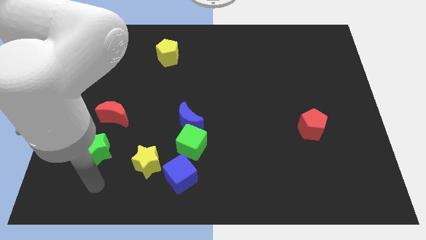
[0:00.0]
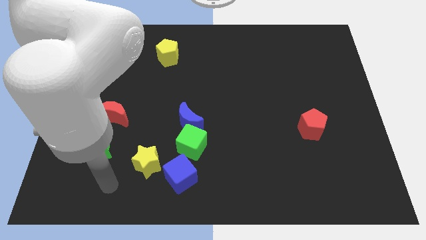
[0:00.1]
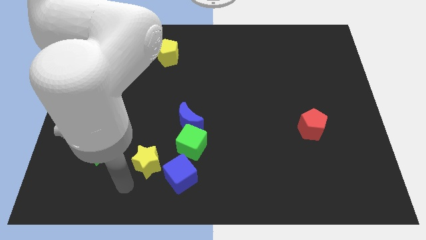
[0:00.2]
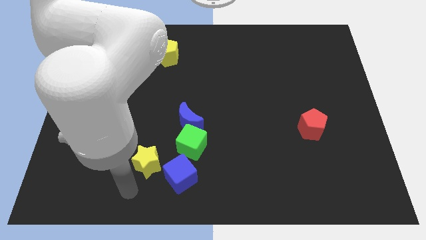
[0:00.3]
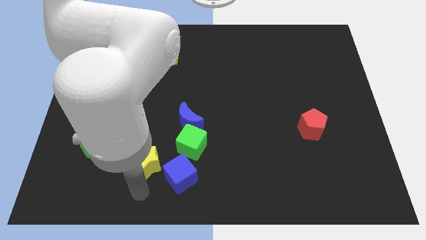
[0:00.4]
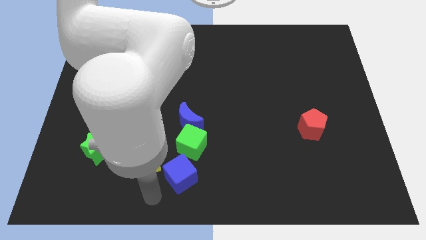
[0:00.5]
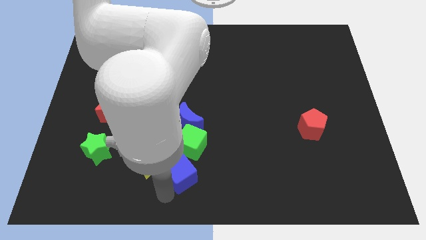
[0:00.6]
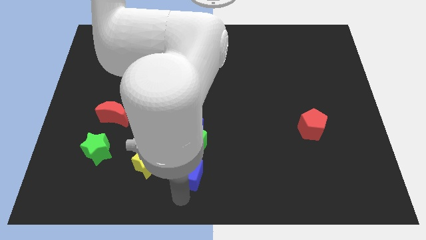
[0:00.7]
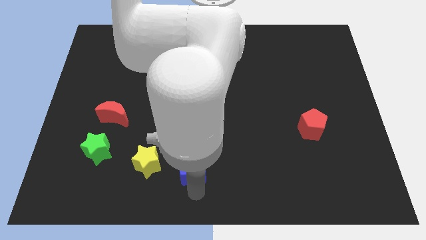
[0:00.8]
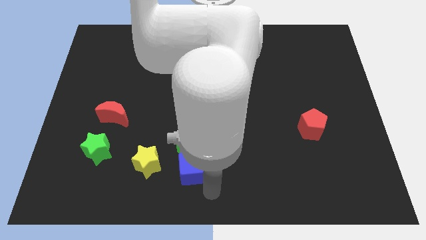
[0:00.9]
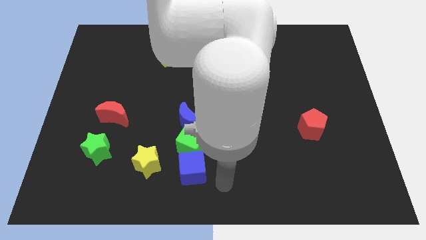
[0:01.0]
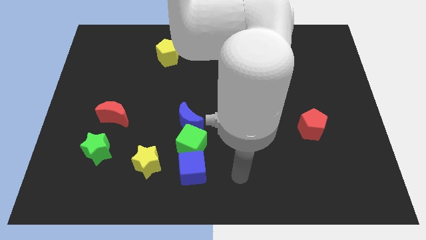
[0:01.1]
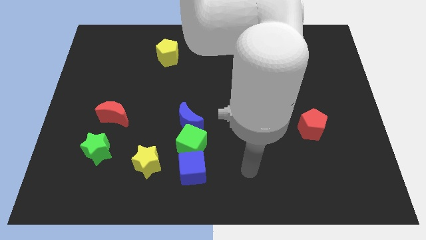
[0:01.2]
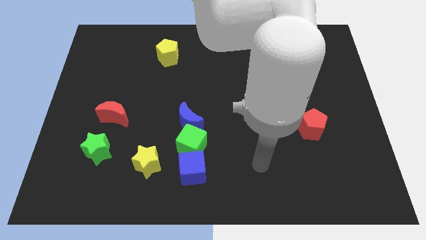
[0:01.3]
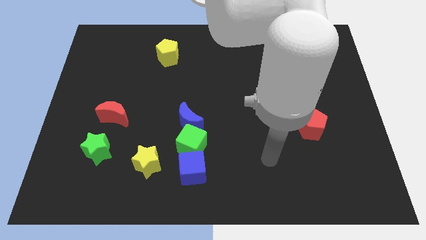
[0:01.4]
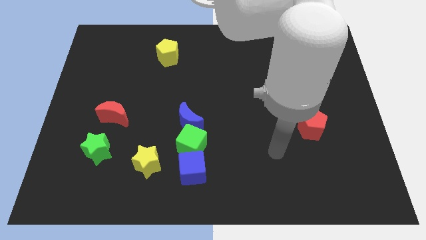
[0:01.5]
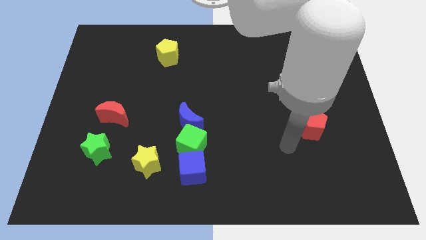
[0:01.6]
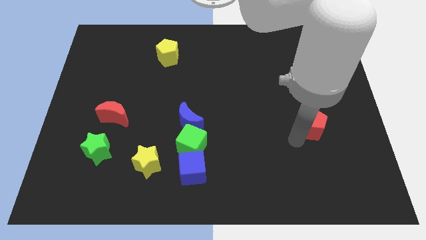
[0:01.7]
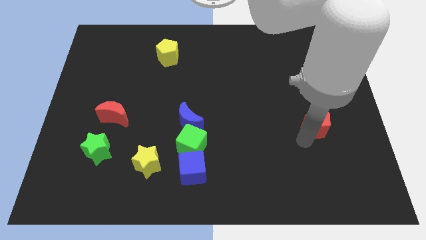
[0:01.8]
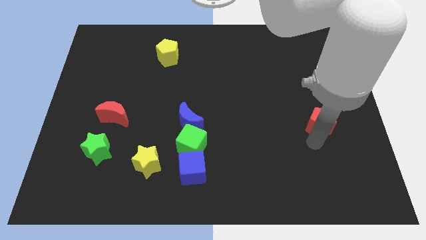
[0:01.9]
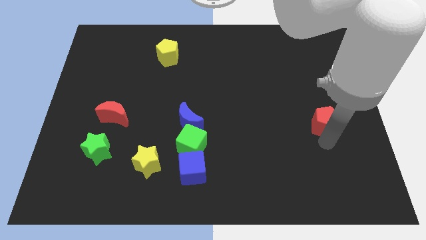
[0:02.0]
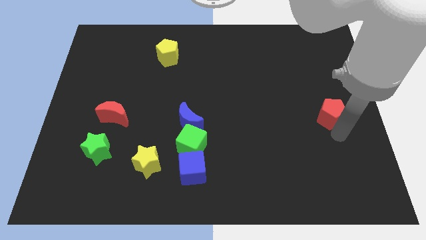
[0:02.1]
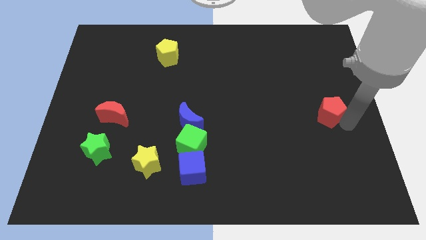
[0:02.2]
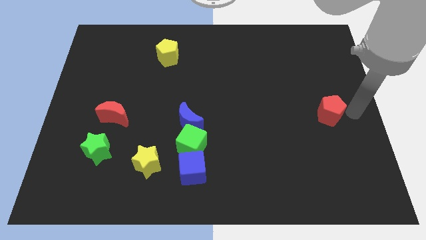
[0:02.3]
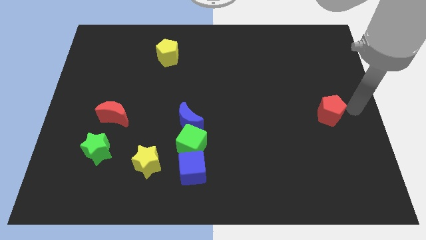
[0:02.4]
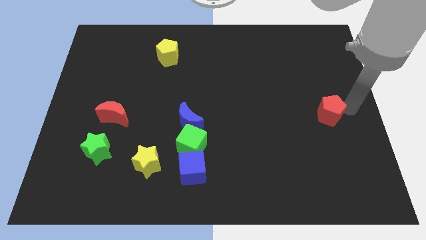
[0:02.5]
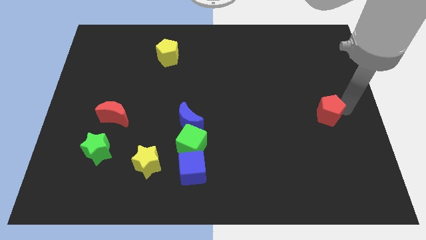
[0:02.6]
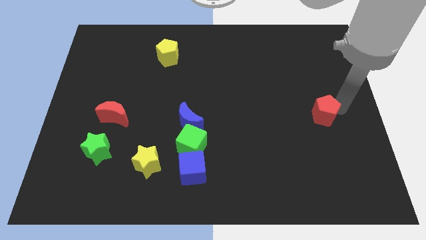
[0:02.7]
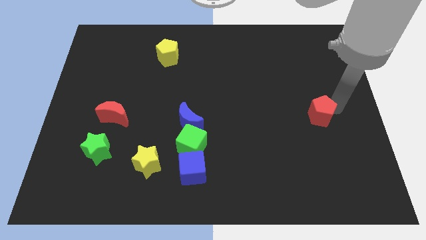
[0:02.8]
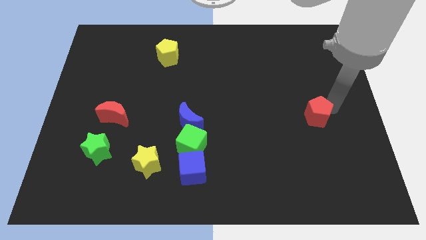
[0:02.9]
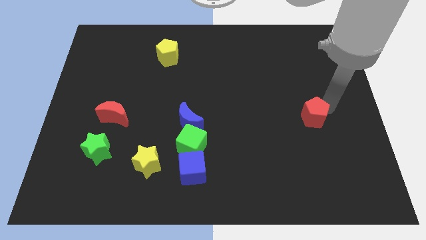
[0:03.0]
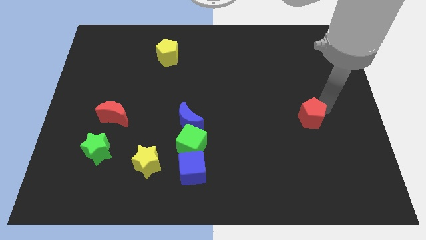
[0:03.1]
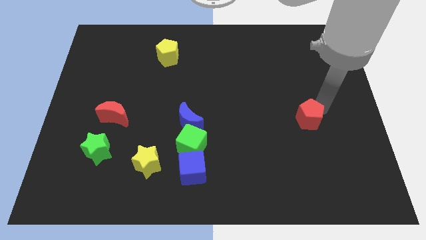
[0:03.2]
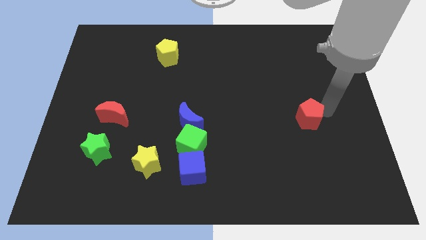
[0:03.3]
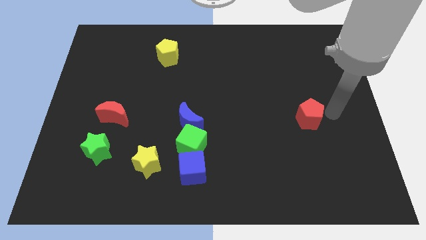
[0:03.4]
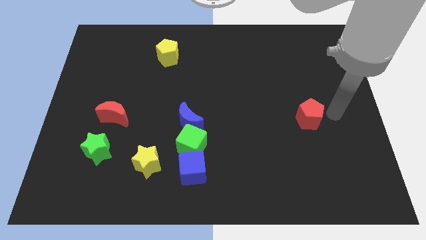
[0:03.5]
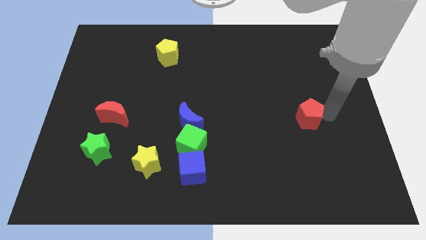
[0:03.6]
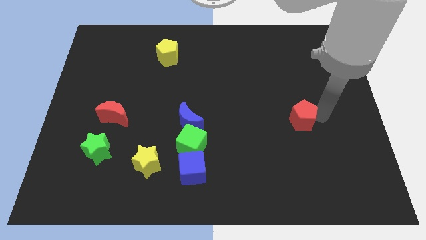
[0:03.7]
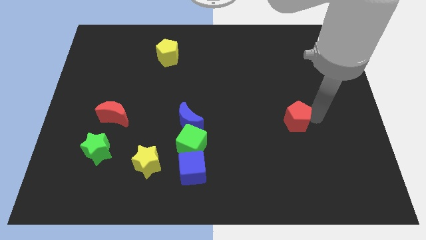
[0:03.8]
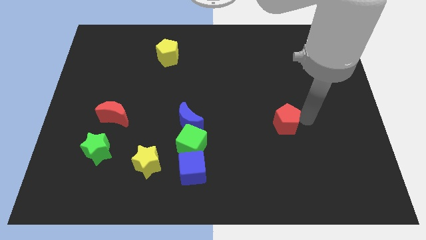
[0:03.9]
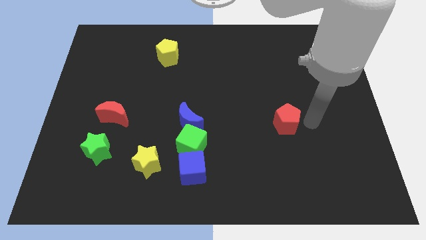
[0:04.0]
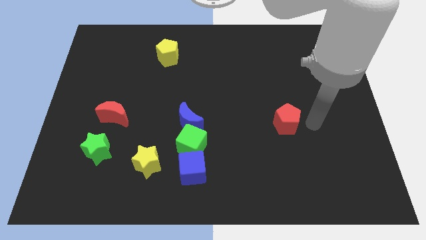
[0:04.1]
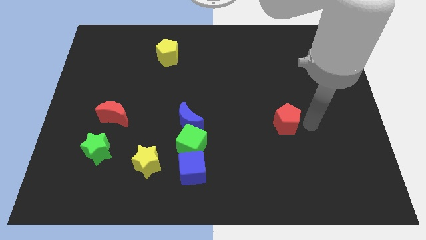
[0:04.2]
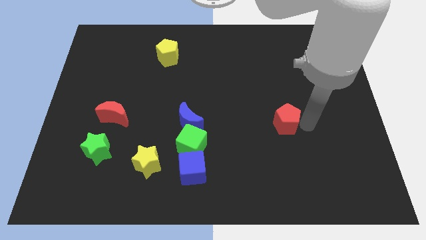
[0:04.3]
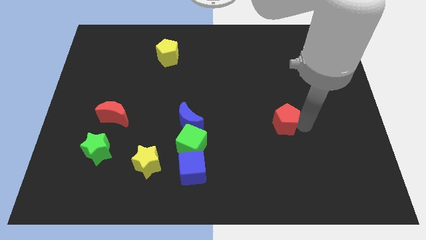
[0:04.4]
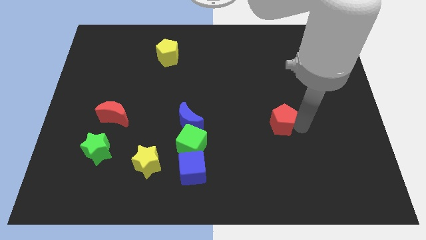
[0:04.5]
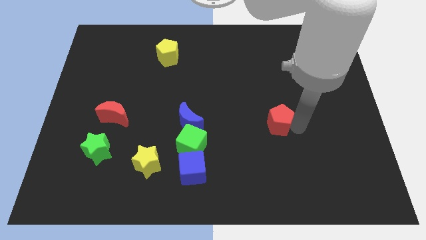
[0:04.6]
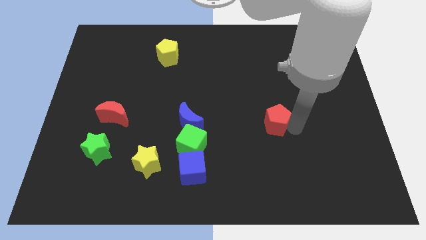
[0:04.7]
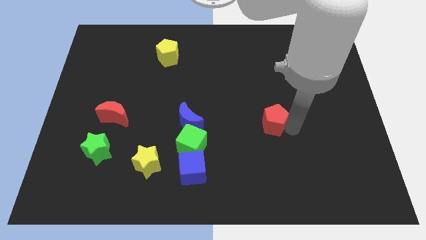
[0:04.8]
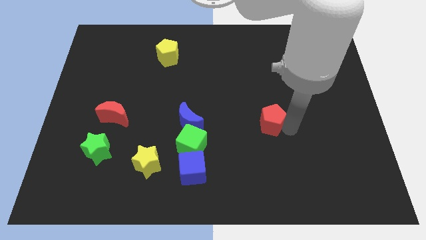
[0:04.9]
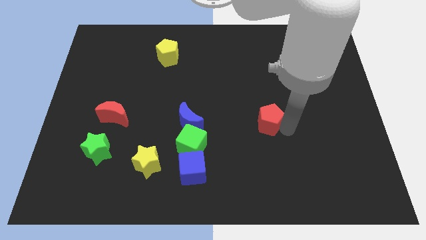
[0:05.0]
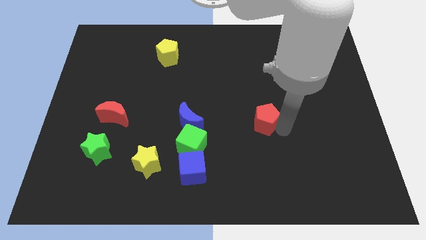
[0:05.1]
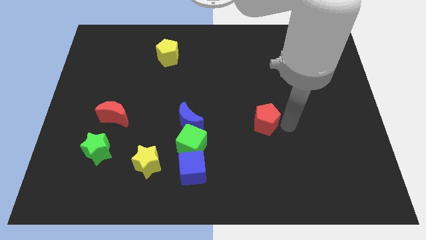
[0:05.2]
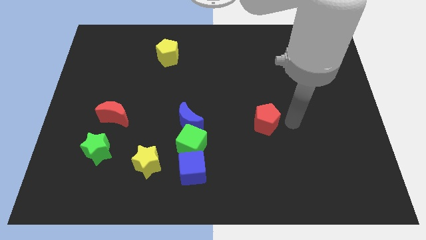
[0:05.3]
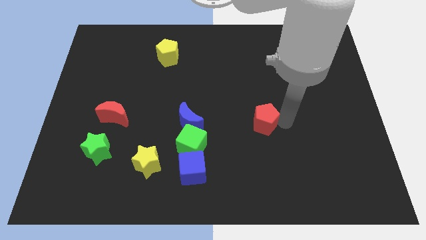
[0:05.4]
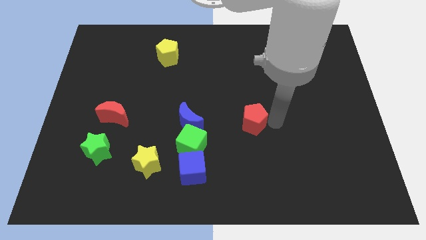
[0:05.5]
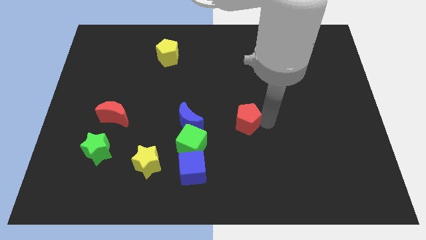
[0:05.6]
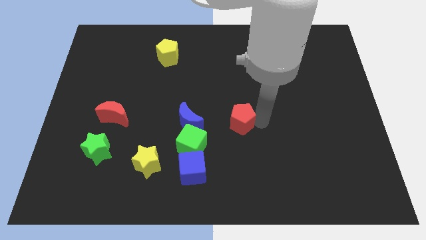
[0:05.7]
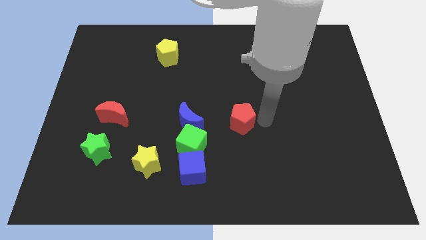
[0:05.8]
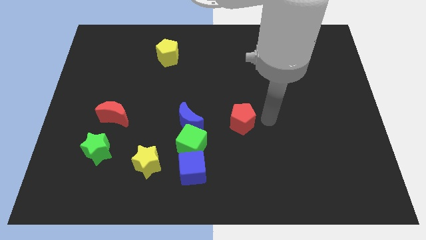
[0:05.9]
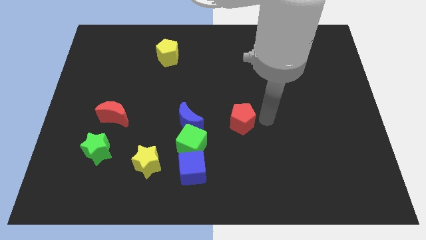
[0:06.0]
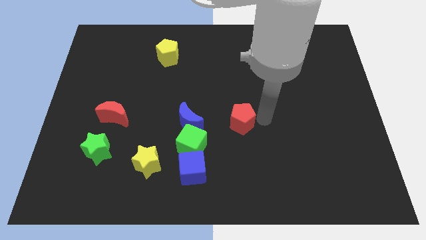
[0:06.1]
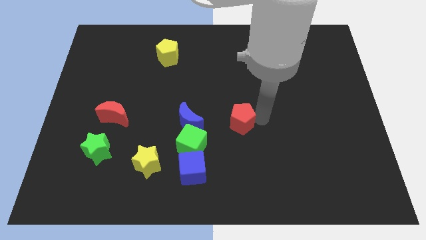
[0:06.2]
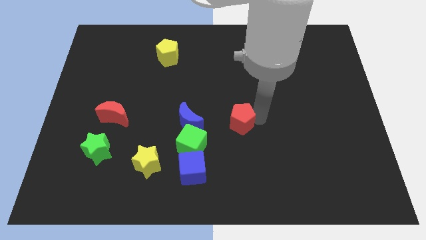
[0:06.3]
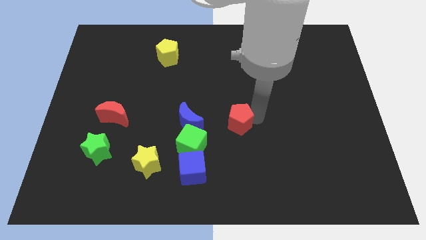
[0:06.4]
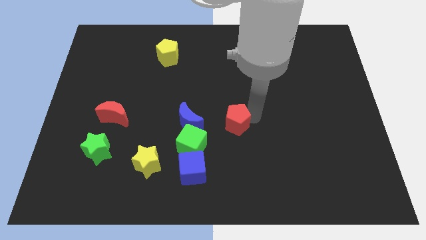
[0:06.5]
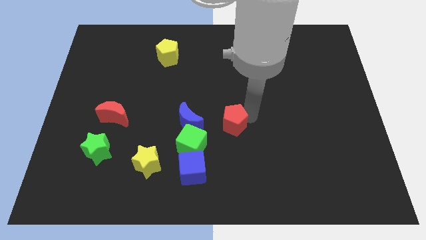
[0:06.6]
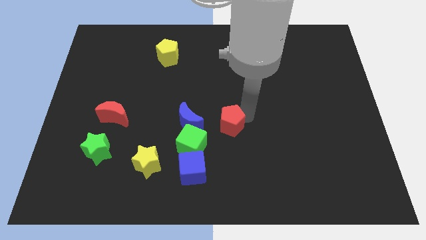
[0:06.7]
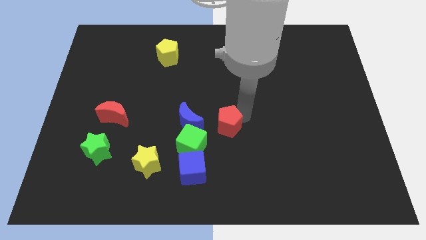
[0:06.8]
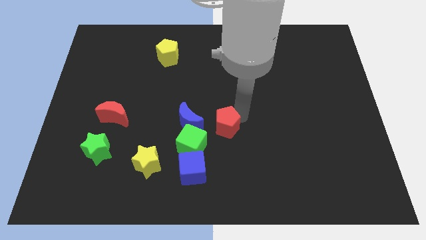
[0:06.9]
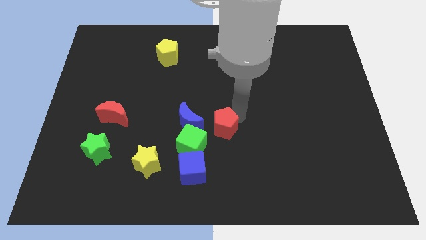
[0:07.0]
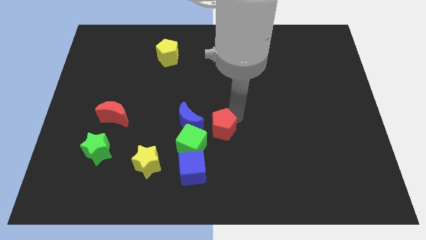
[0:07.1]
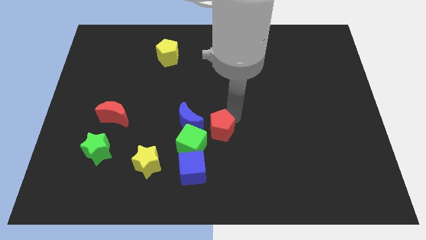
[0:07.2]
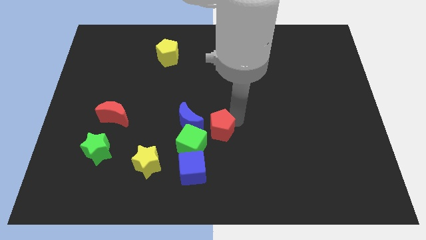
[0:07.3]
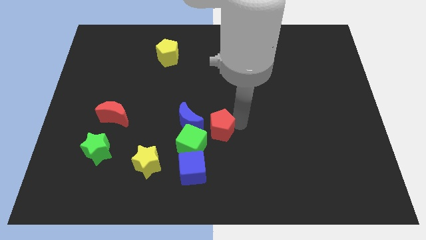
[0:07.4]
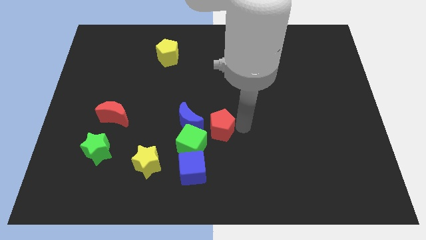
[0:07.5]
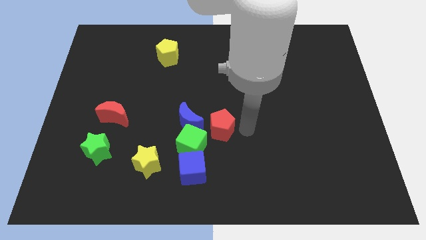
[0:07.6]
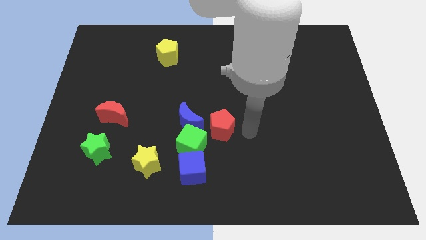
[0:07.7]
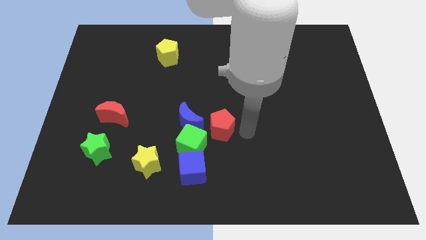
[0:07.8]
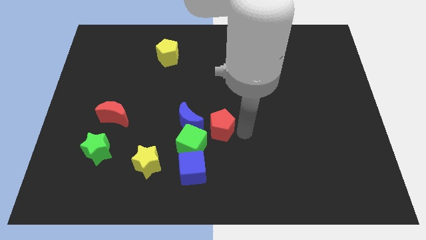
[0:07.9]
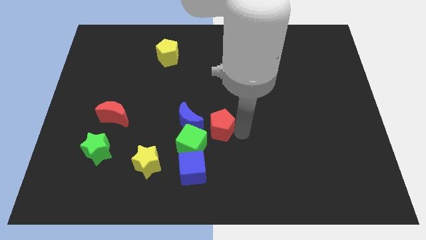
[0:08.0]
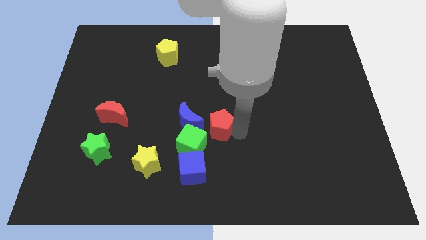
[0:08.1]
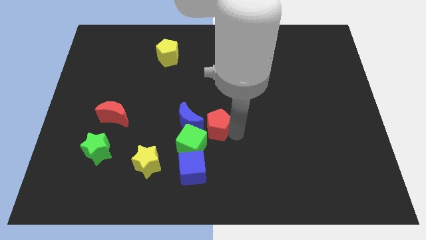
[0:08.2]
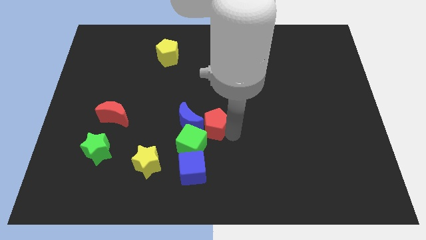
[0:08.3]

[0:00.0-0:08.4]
slide the red pentagon close to the blue moon
